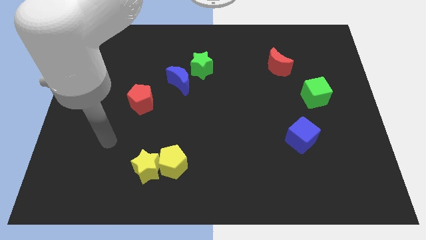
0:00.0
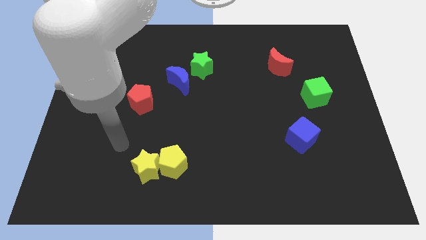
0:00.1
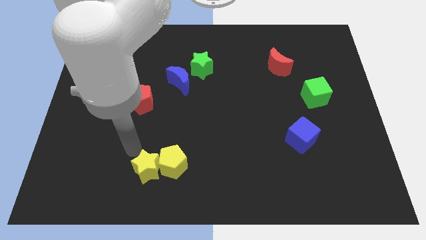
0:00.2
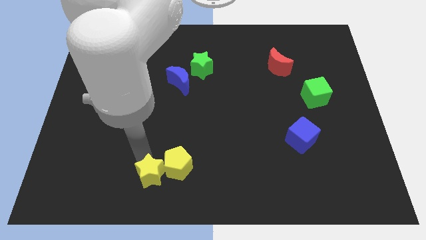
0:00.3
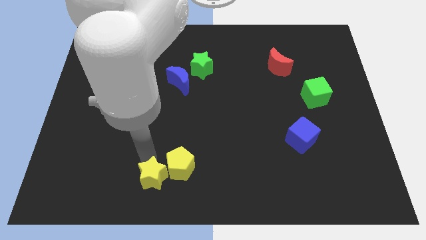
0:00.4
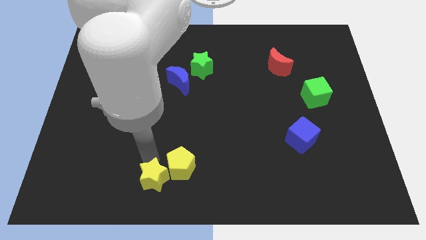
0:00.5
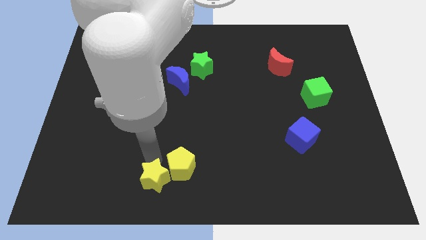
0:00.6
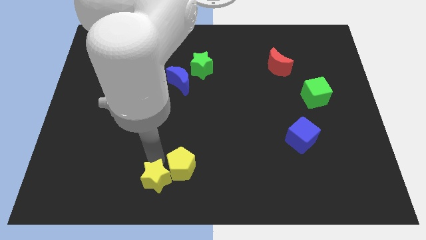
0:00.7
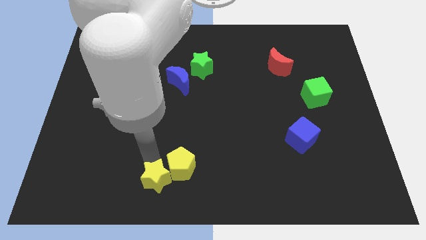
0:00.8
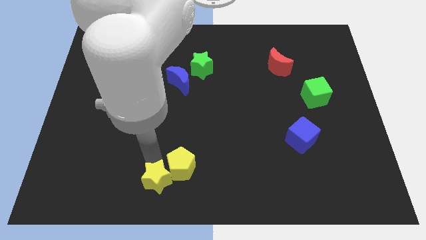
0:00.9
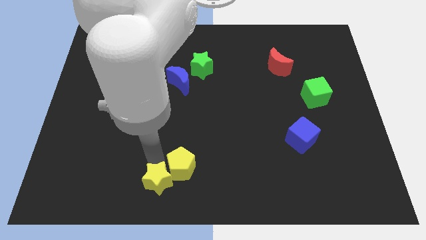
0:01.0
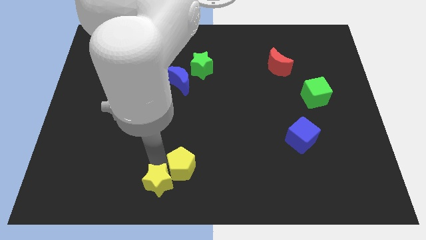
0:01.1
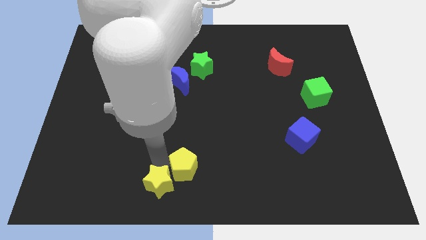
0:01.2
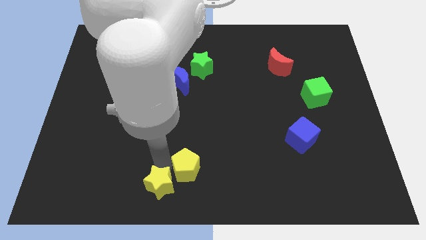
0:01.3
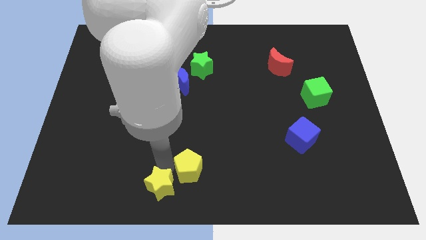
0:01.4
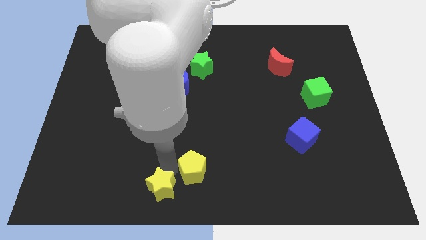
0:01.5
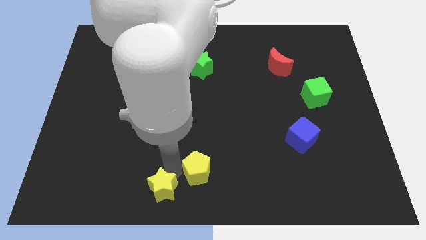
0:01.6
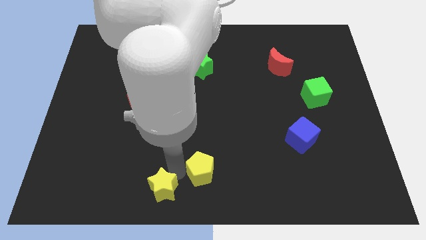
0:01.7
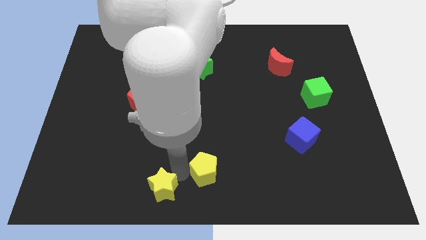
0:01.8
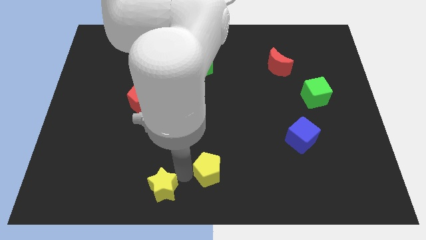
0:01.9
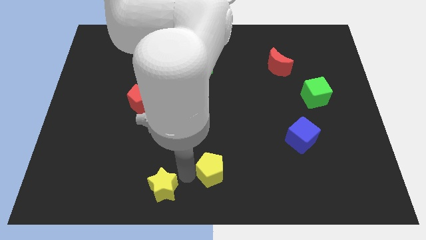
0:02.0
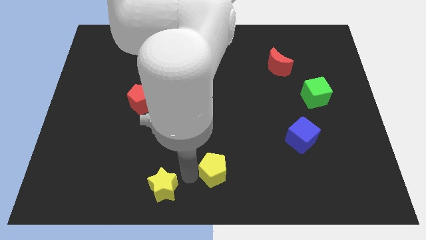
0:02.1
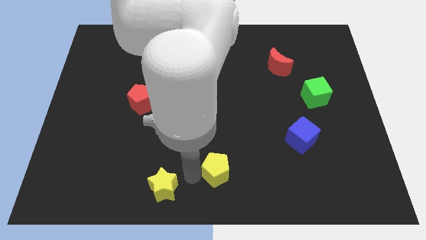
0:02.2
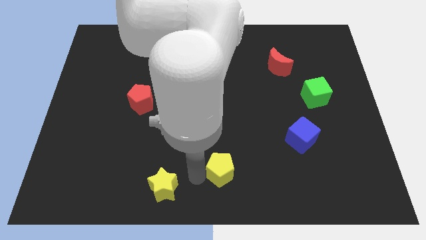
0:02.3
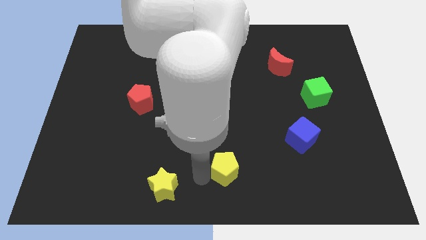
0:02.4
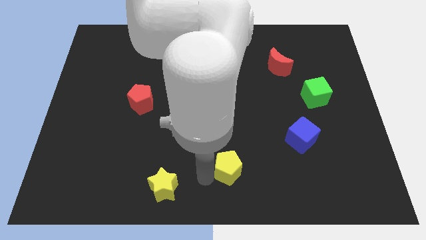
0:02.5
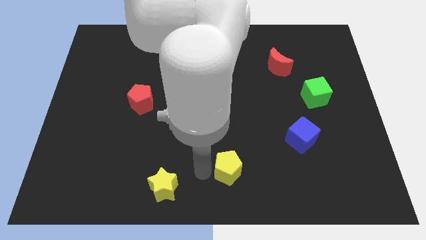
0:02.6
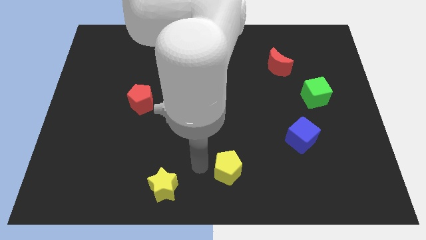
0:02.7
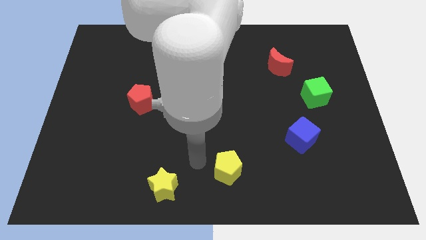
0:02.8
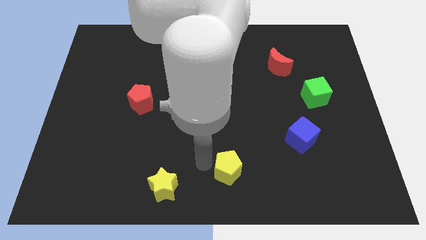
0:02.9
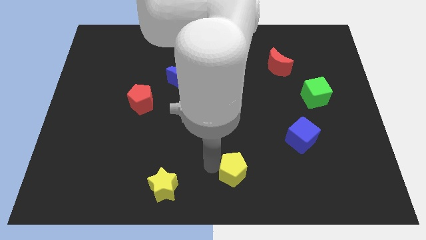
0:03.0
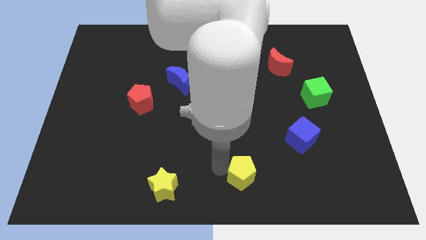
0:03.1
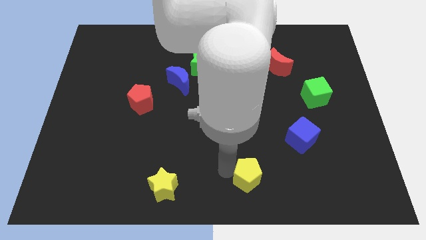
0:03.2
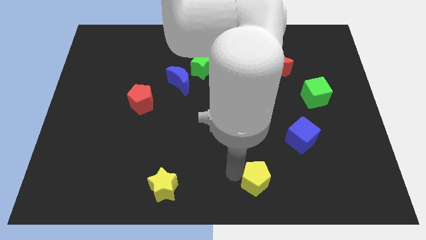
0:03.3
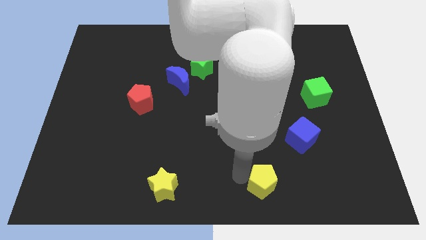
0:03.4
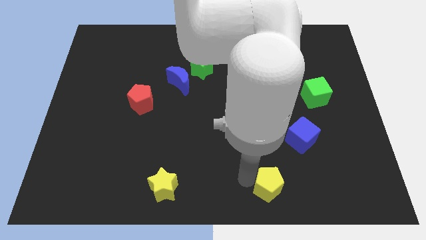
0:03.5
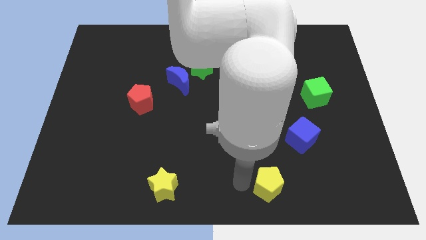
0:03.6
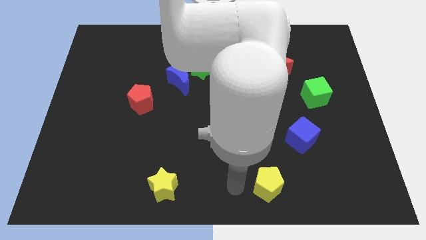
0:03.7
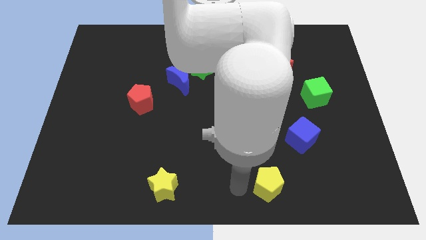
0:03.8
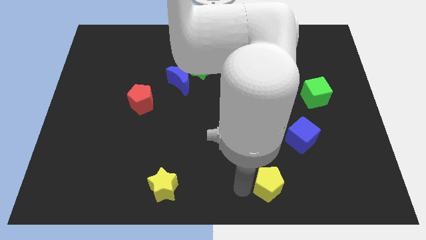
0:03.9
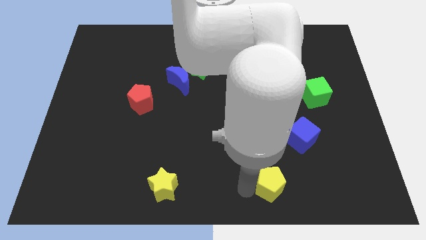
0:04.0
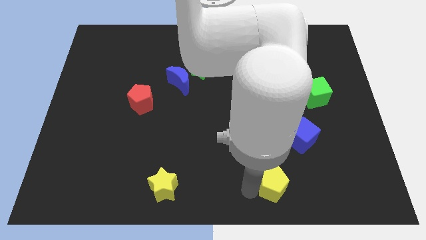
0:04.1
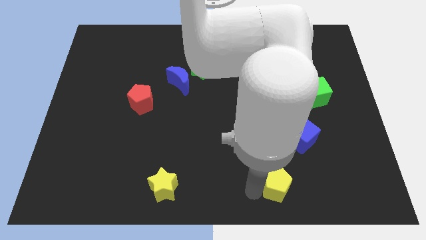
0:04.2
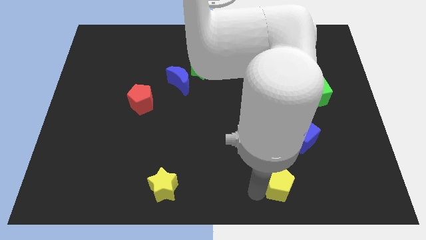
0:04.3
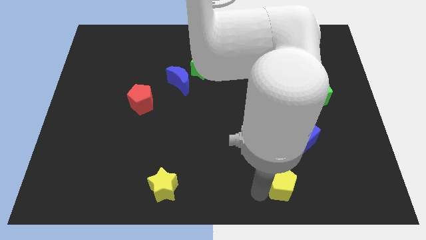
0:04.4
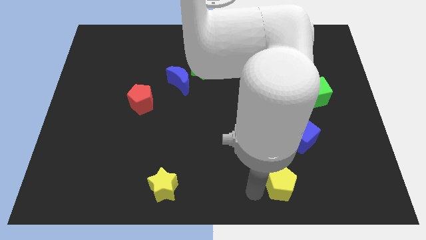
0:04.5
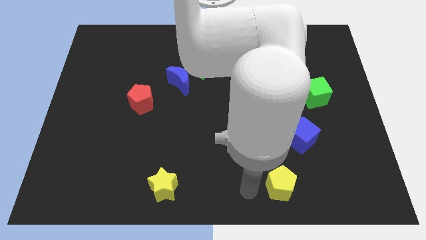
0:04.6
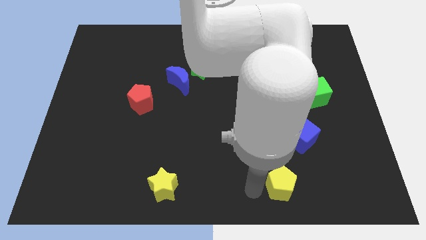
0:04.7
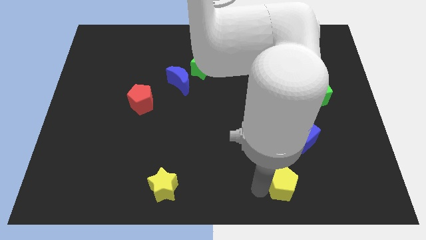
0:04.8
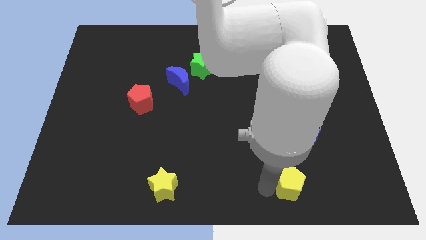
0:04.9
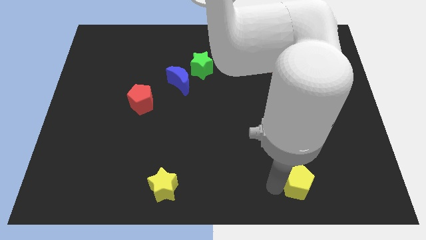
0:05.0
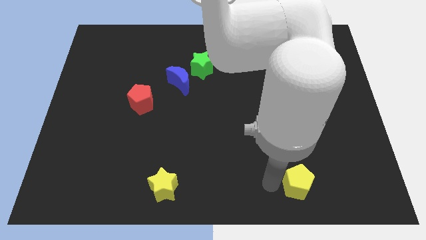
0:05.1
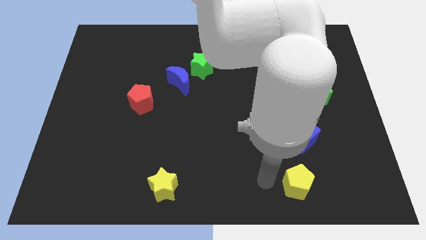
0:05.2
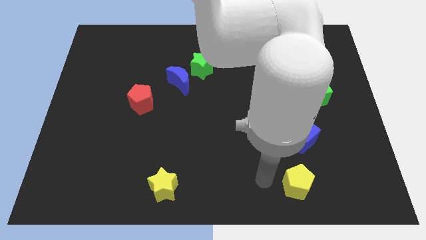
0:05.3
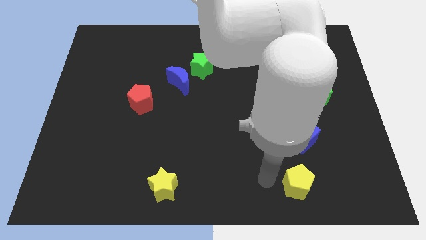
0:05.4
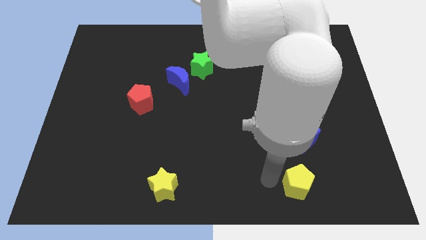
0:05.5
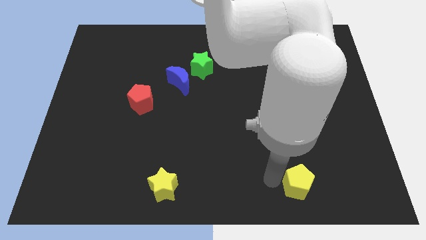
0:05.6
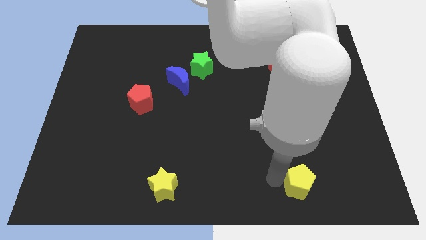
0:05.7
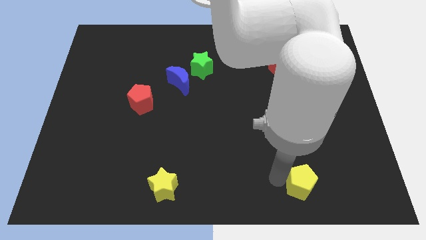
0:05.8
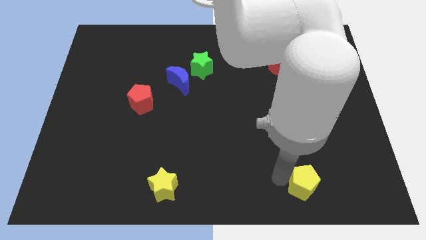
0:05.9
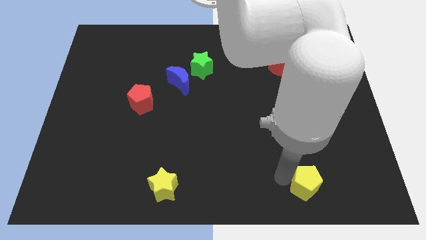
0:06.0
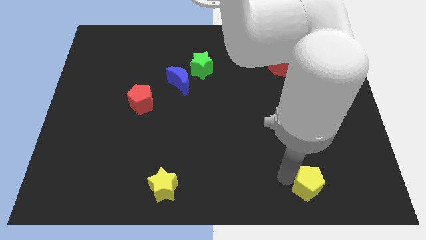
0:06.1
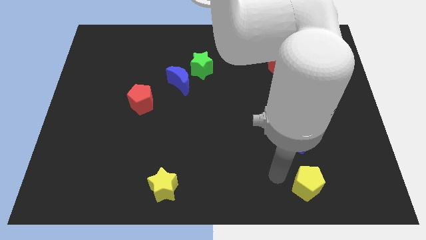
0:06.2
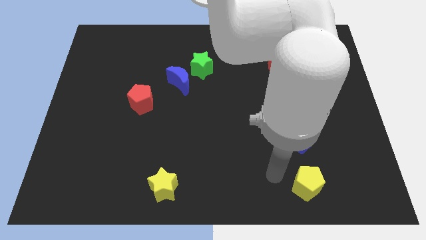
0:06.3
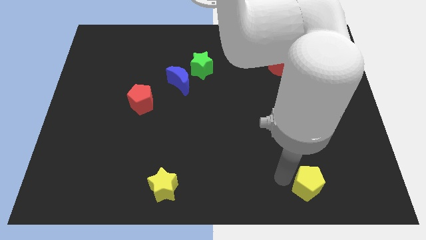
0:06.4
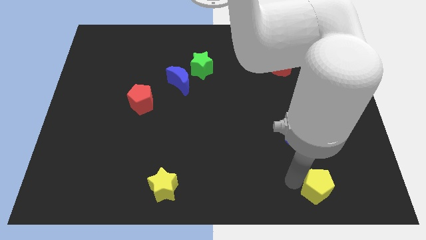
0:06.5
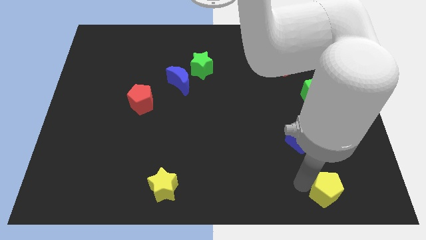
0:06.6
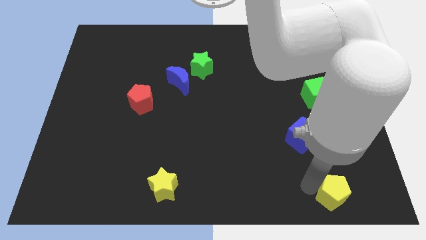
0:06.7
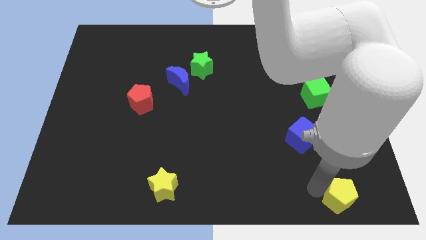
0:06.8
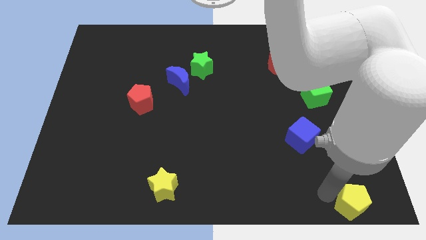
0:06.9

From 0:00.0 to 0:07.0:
move the yellow pentagon to the bottom right
